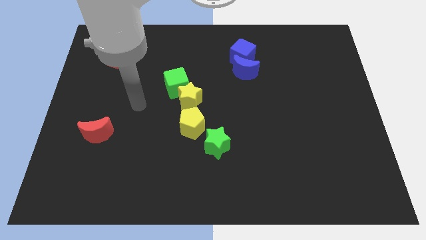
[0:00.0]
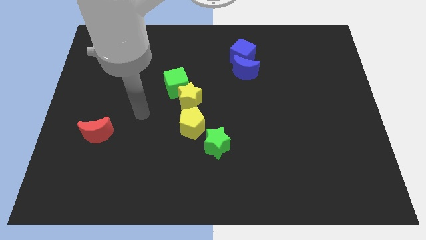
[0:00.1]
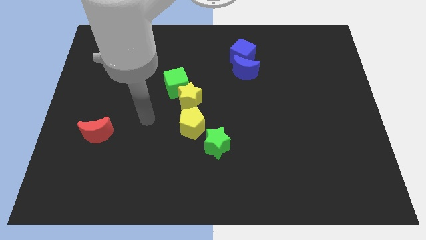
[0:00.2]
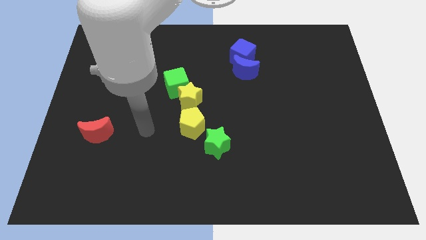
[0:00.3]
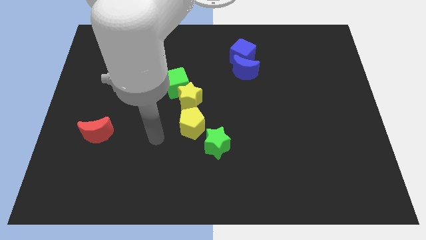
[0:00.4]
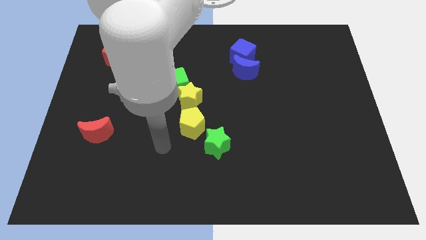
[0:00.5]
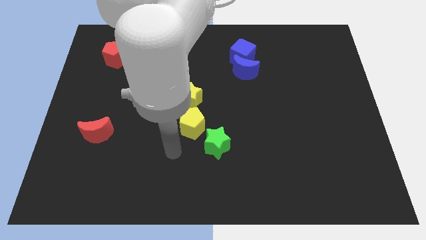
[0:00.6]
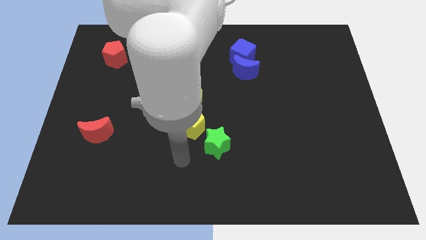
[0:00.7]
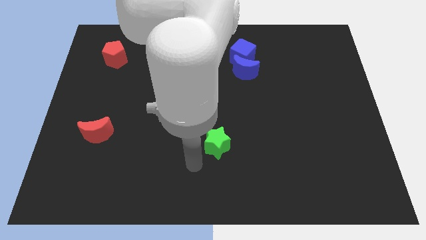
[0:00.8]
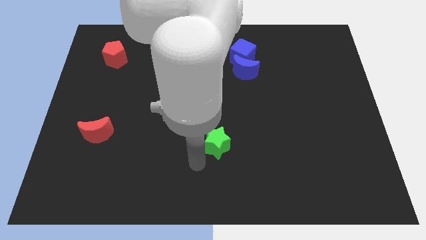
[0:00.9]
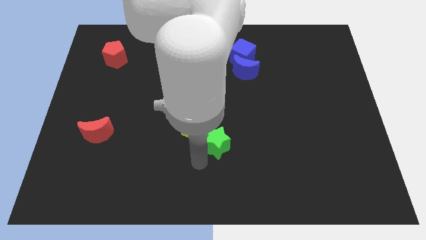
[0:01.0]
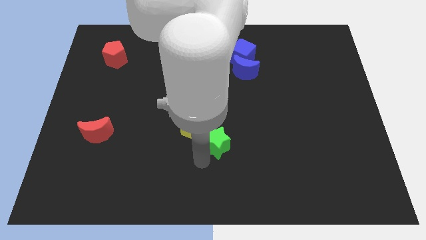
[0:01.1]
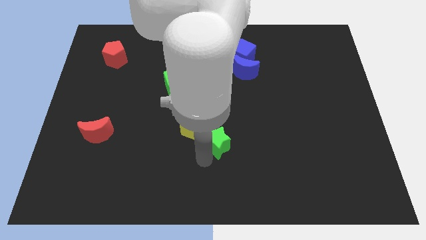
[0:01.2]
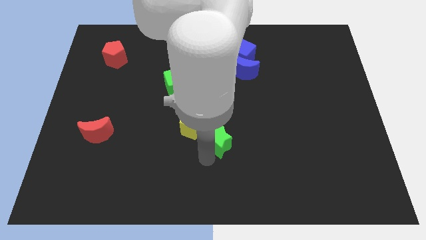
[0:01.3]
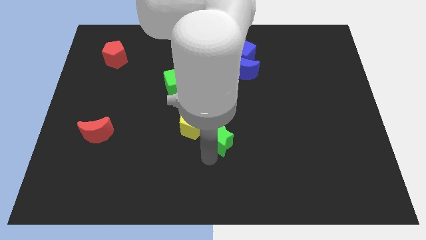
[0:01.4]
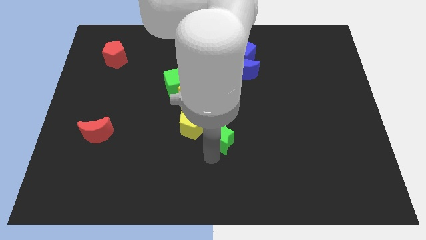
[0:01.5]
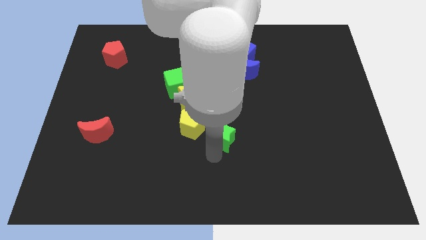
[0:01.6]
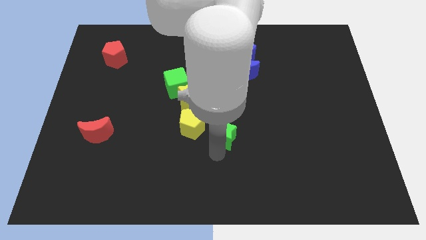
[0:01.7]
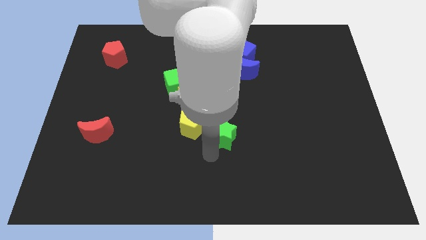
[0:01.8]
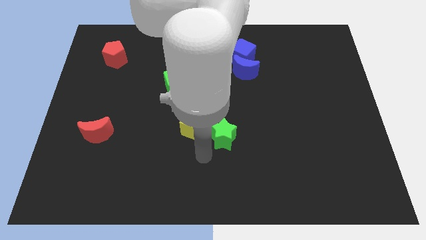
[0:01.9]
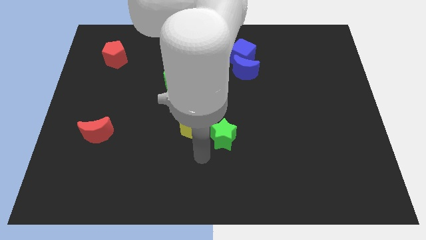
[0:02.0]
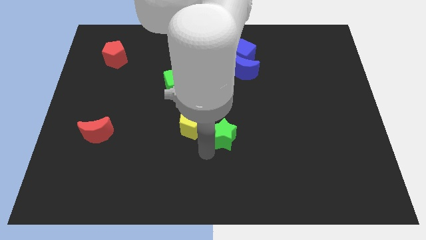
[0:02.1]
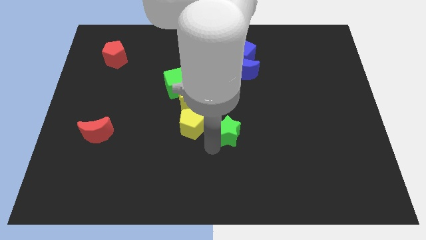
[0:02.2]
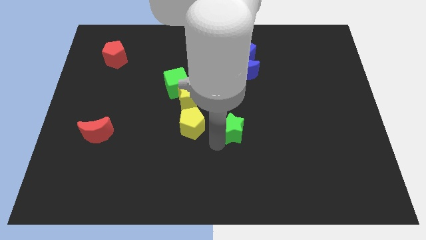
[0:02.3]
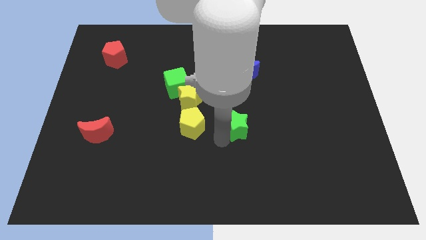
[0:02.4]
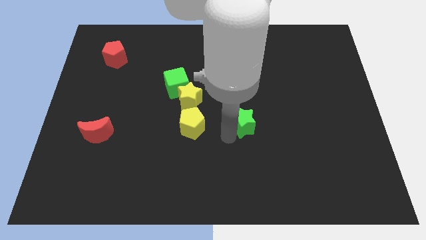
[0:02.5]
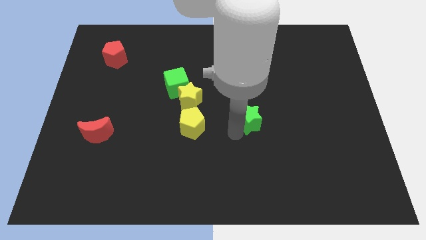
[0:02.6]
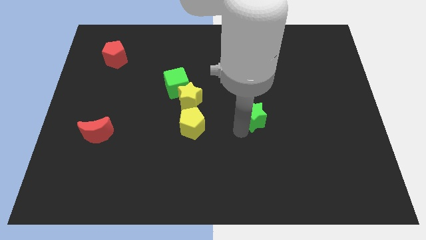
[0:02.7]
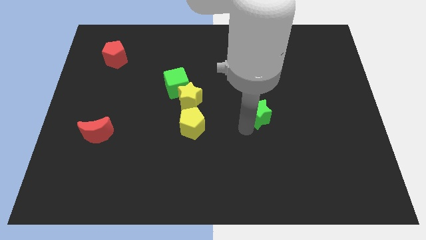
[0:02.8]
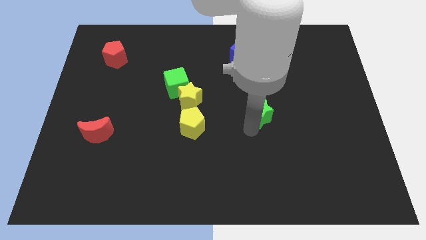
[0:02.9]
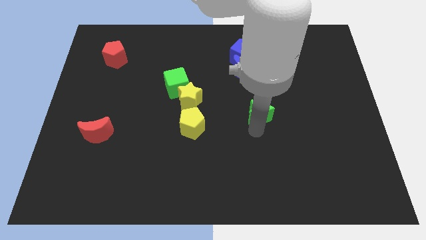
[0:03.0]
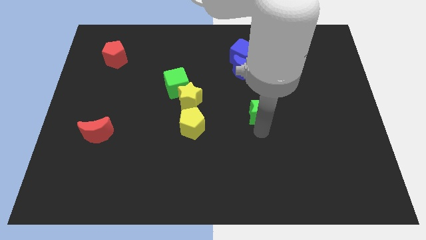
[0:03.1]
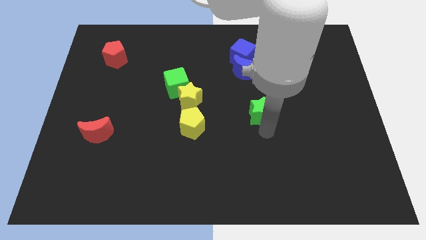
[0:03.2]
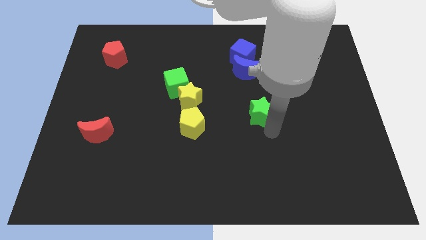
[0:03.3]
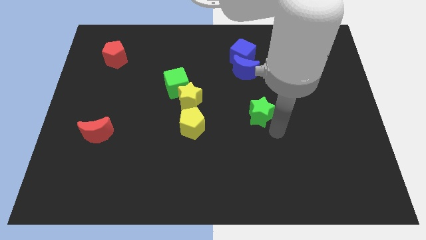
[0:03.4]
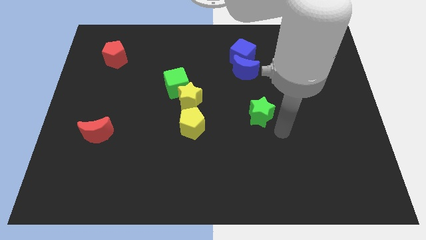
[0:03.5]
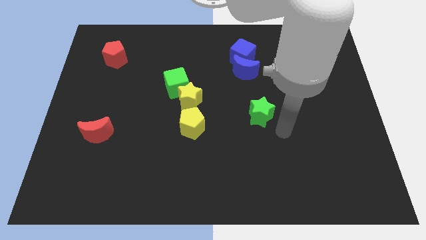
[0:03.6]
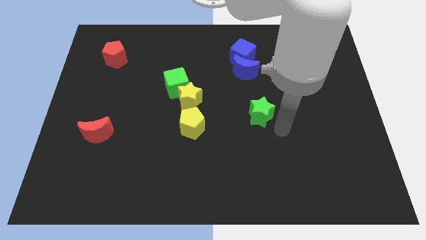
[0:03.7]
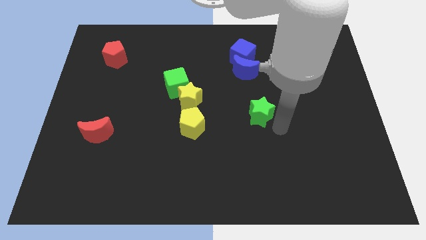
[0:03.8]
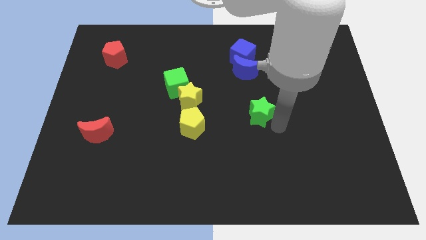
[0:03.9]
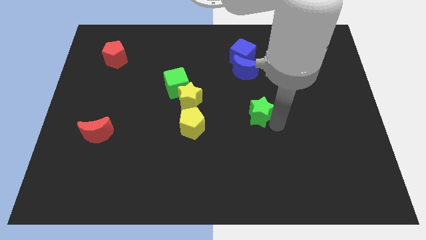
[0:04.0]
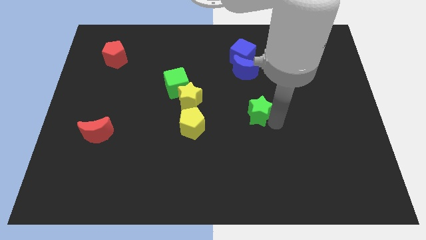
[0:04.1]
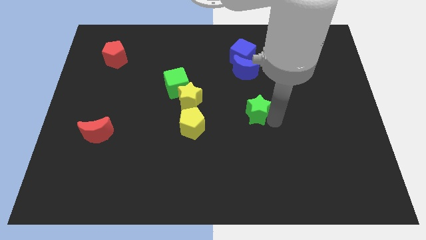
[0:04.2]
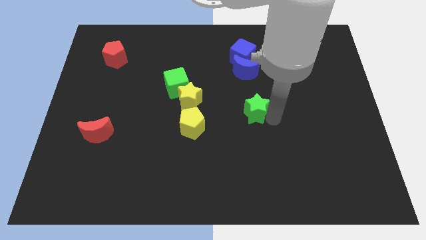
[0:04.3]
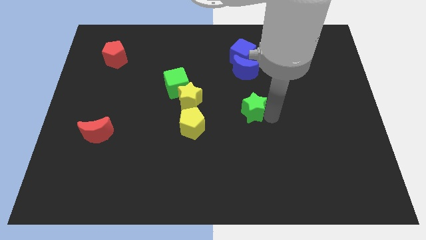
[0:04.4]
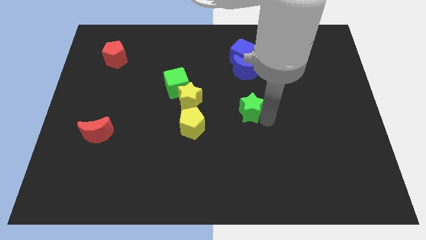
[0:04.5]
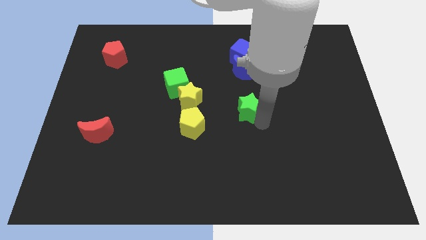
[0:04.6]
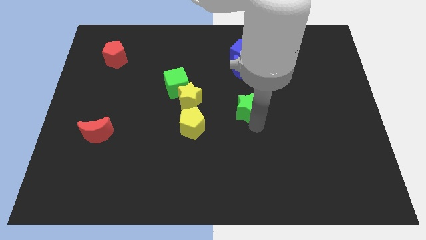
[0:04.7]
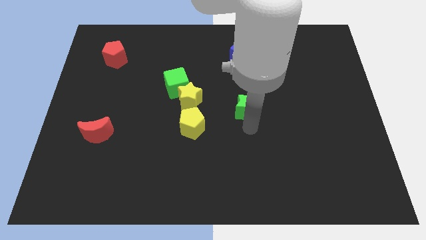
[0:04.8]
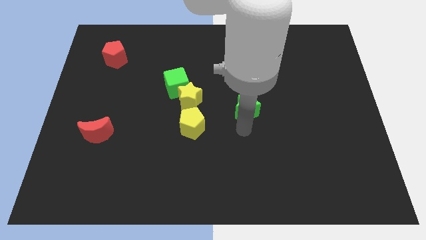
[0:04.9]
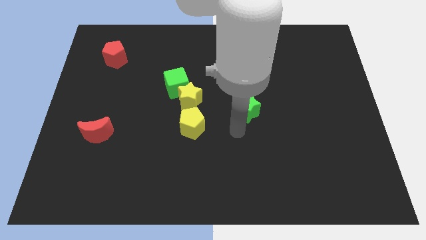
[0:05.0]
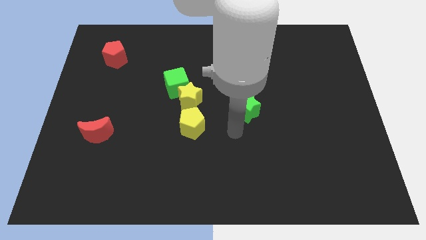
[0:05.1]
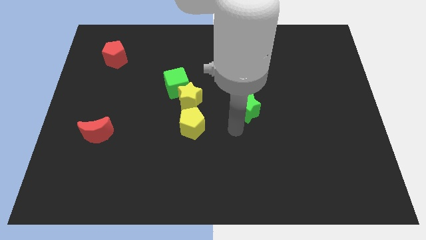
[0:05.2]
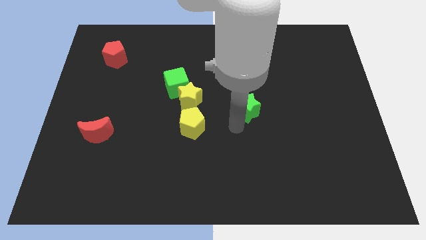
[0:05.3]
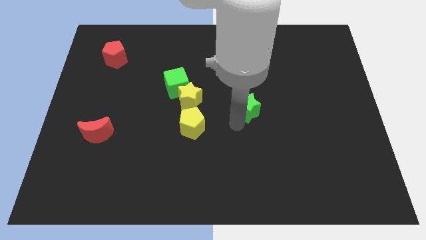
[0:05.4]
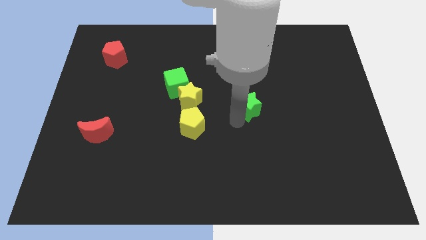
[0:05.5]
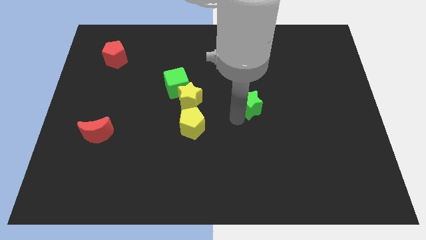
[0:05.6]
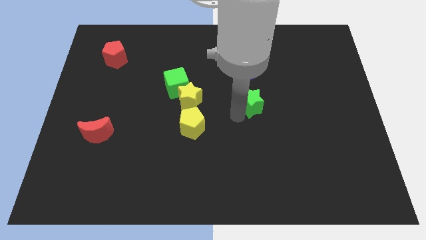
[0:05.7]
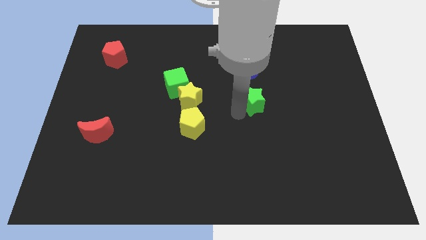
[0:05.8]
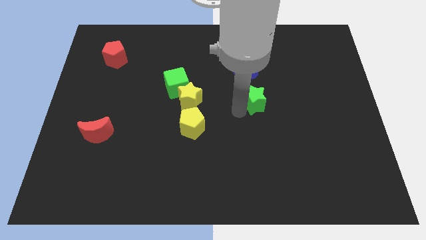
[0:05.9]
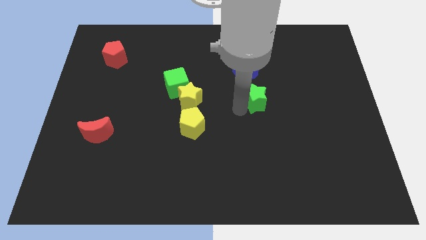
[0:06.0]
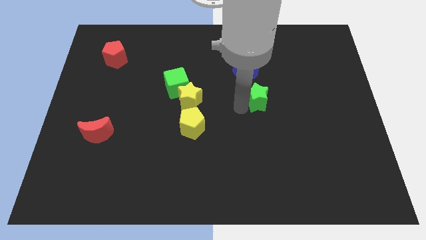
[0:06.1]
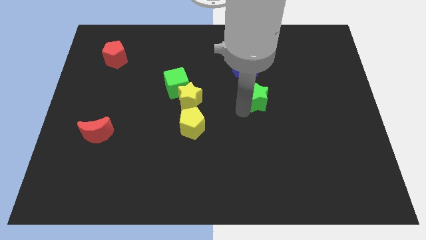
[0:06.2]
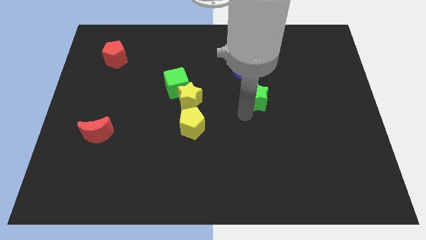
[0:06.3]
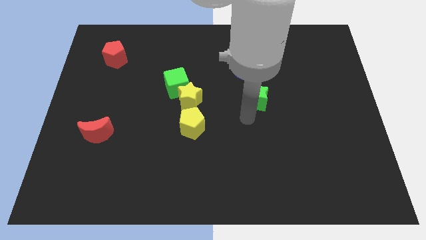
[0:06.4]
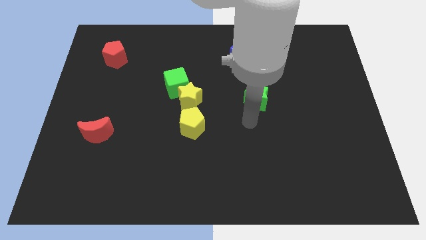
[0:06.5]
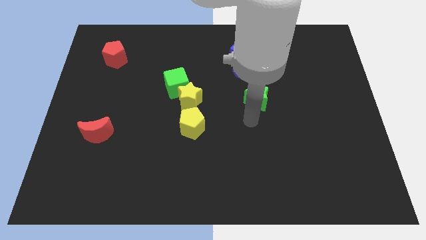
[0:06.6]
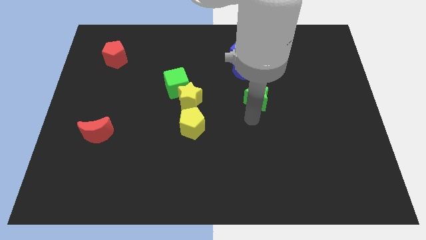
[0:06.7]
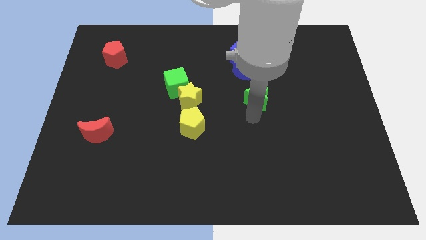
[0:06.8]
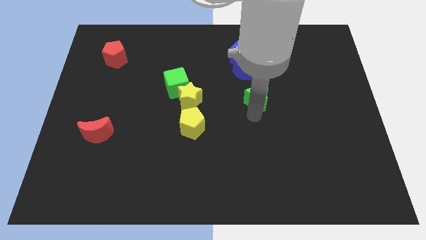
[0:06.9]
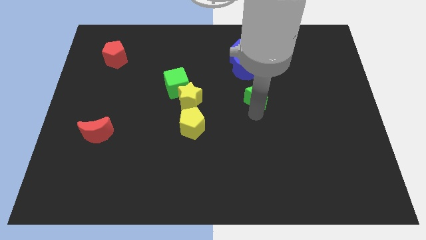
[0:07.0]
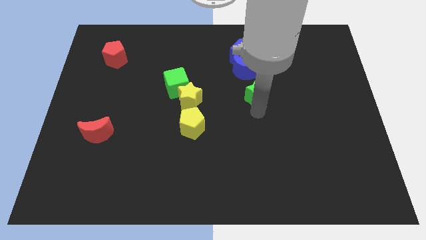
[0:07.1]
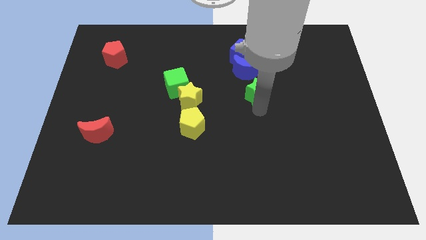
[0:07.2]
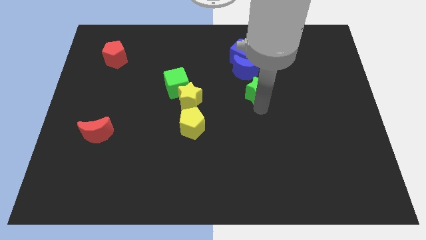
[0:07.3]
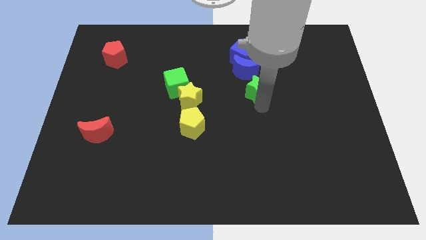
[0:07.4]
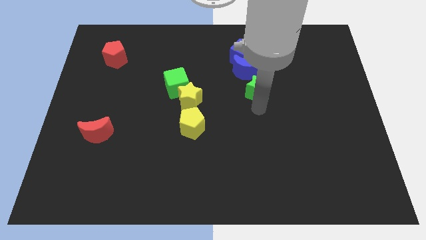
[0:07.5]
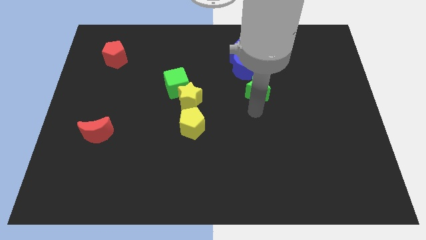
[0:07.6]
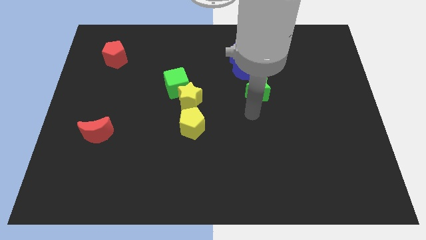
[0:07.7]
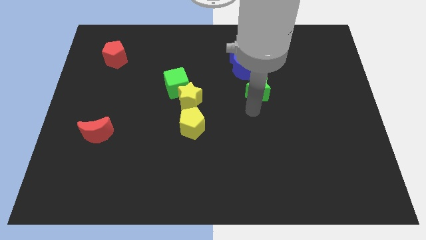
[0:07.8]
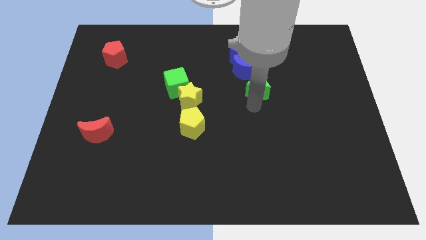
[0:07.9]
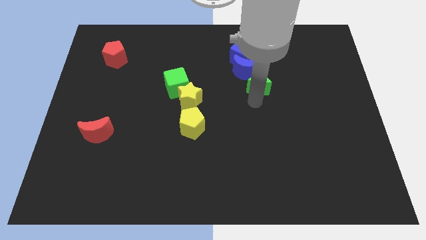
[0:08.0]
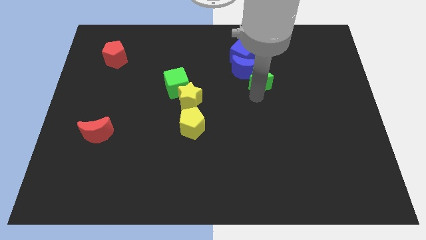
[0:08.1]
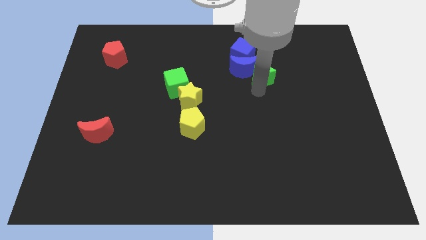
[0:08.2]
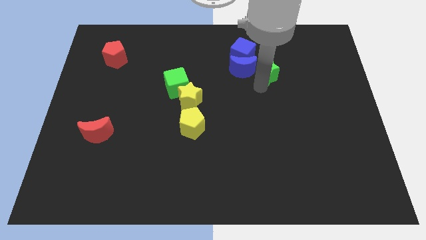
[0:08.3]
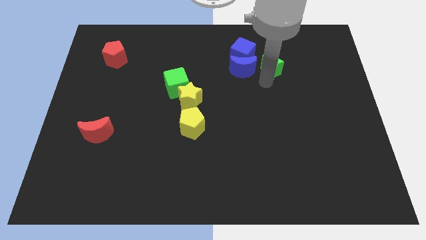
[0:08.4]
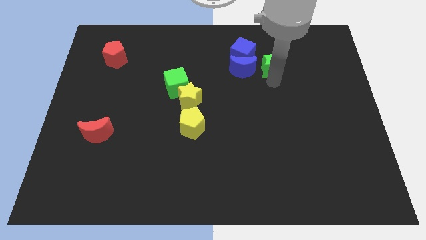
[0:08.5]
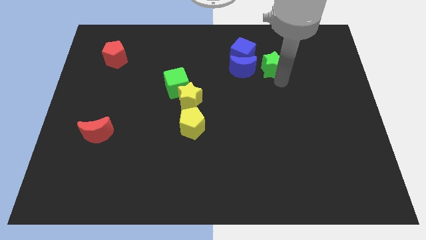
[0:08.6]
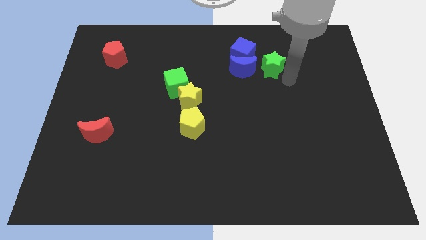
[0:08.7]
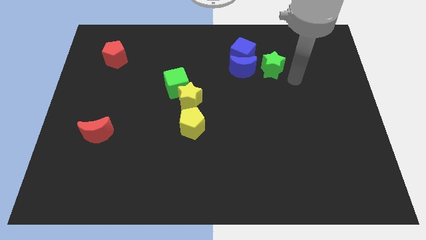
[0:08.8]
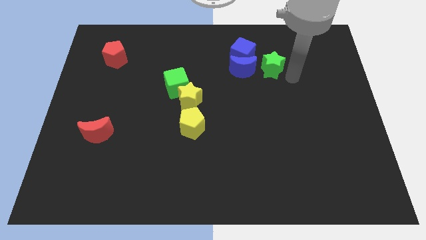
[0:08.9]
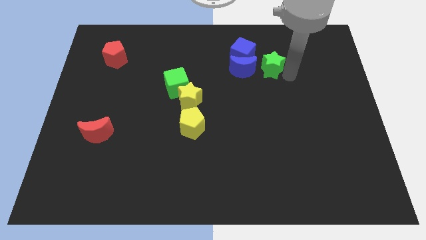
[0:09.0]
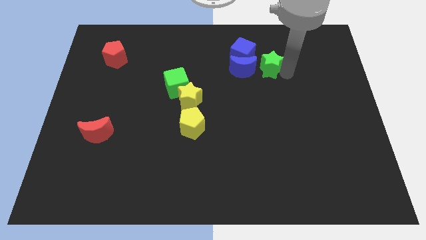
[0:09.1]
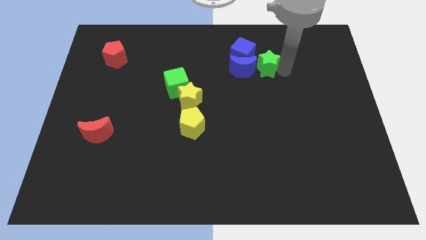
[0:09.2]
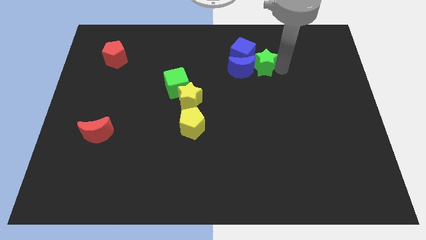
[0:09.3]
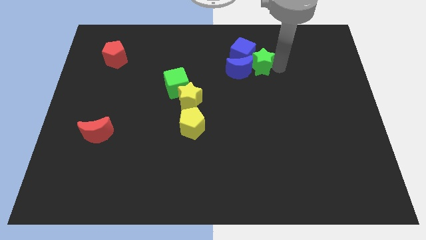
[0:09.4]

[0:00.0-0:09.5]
push the green star close to the blue cube
